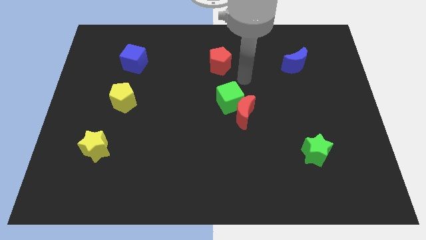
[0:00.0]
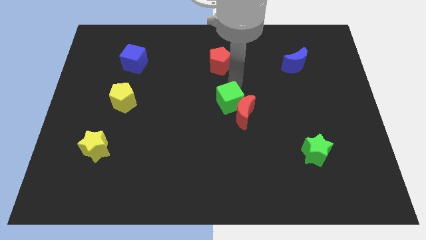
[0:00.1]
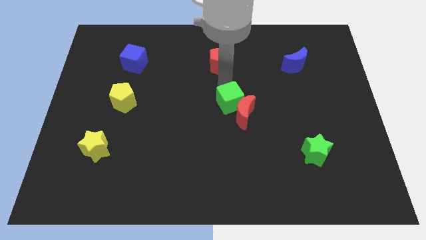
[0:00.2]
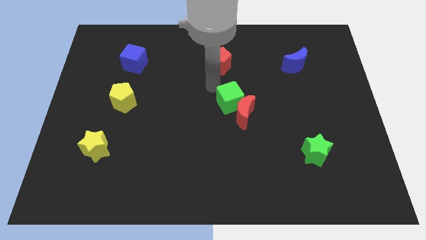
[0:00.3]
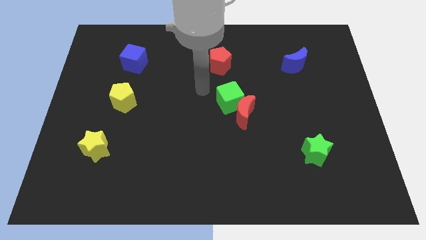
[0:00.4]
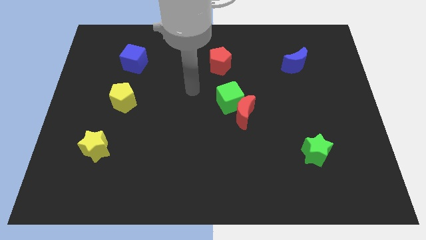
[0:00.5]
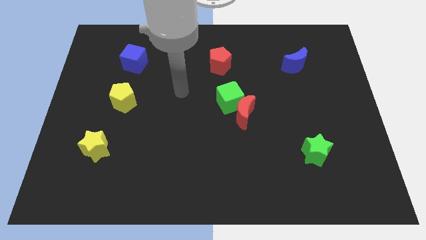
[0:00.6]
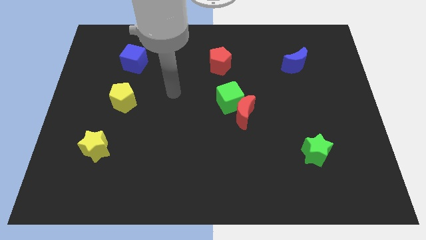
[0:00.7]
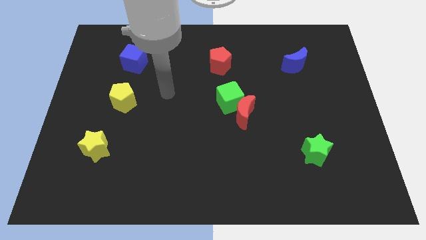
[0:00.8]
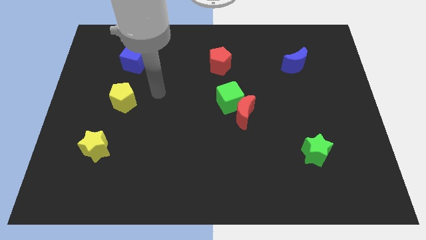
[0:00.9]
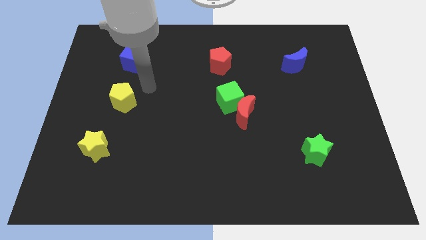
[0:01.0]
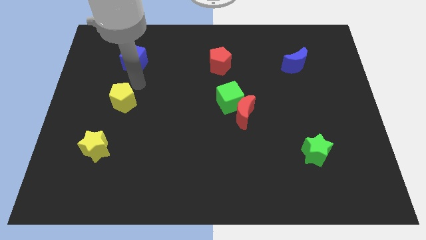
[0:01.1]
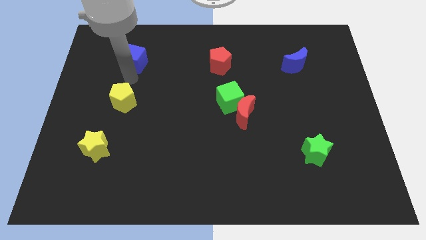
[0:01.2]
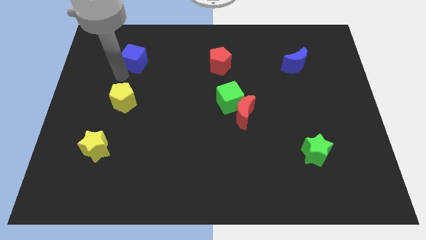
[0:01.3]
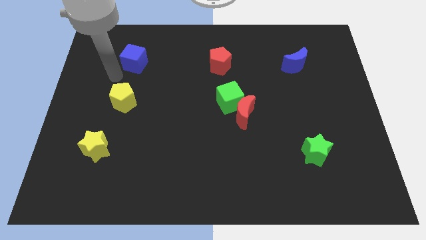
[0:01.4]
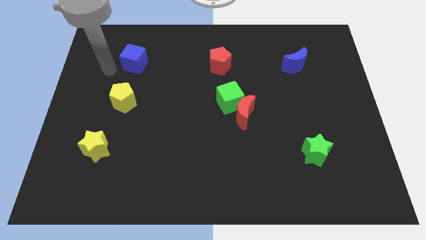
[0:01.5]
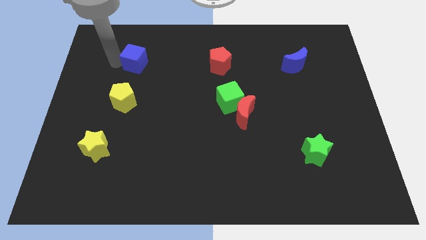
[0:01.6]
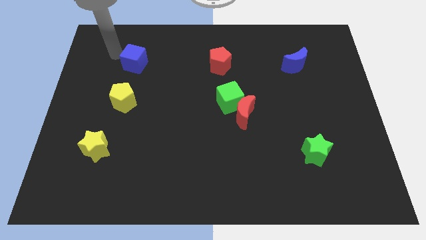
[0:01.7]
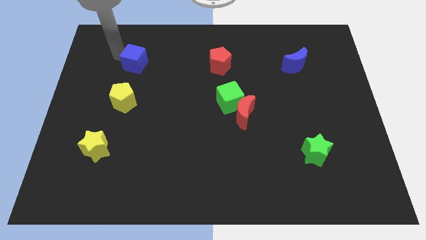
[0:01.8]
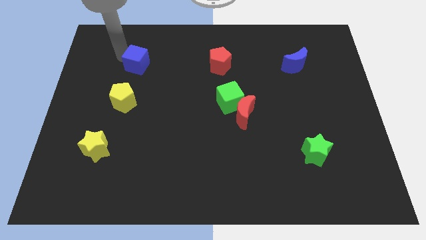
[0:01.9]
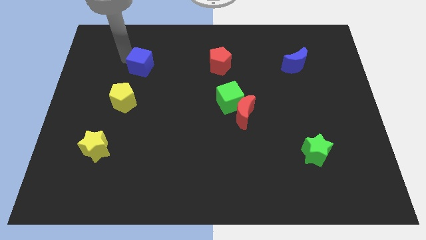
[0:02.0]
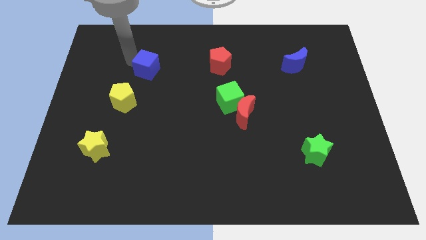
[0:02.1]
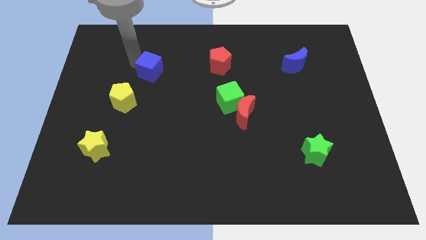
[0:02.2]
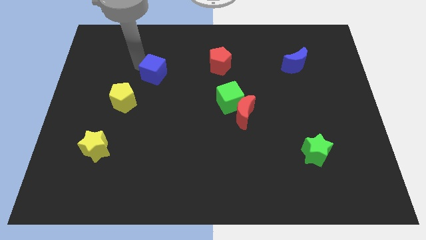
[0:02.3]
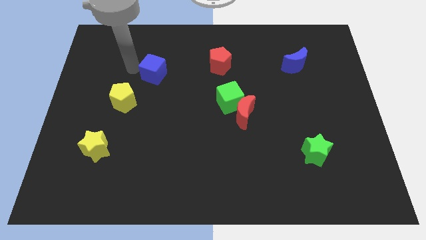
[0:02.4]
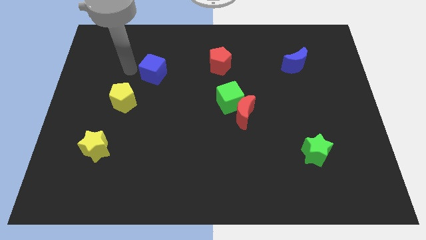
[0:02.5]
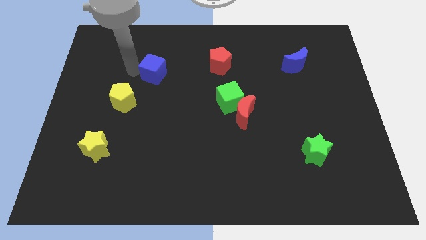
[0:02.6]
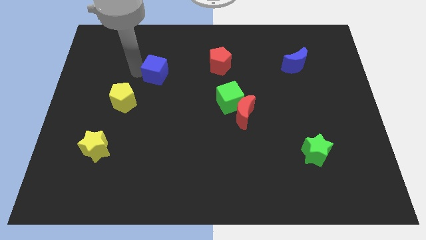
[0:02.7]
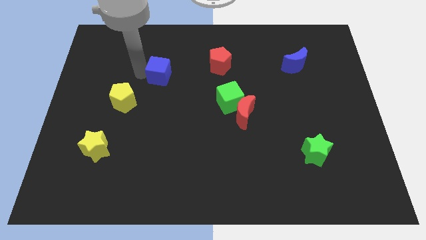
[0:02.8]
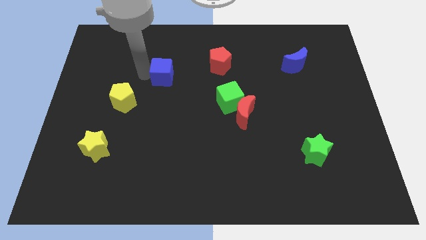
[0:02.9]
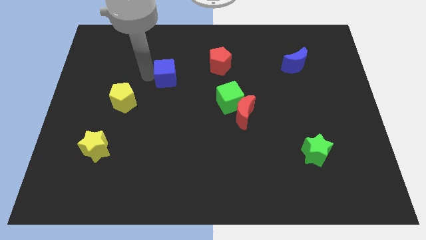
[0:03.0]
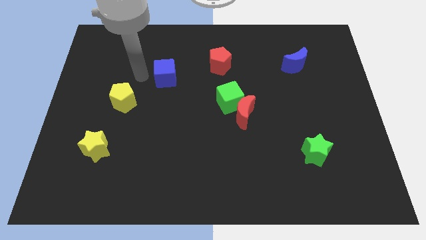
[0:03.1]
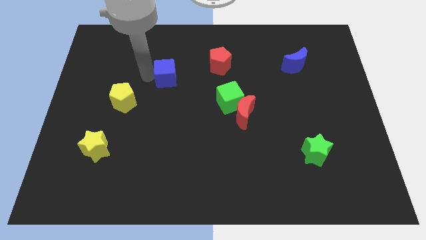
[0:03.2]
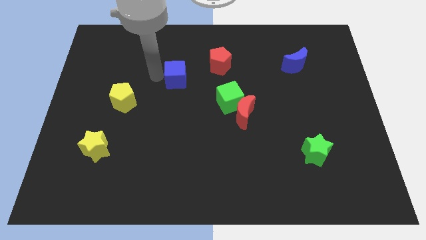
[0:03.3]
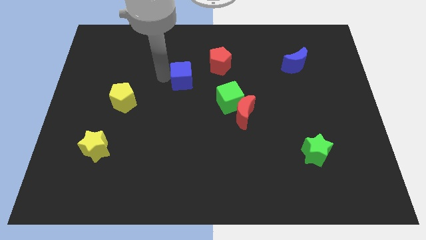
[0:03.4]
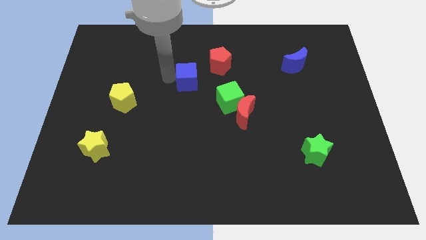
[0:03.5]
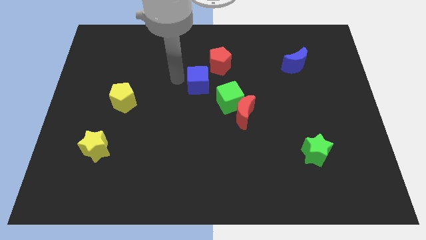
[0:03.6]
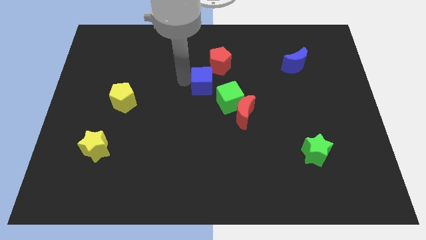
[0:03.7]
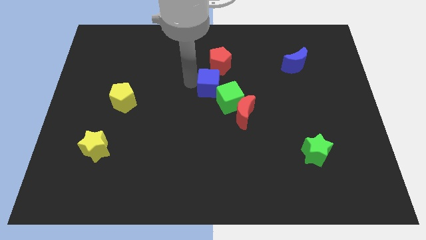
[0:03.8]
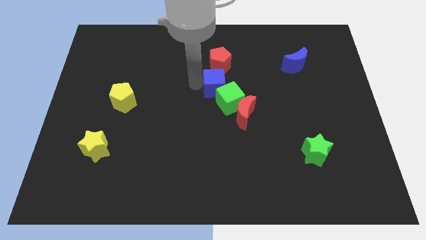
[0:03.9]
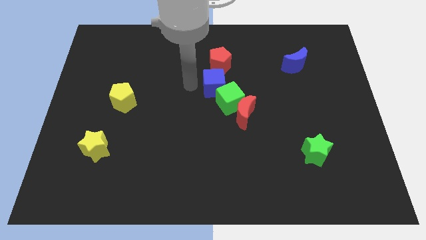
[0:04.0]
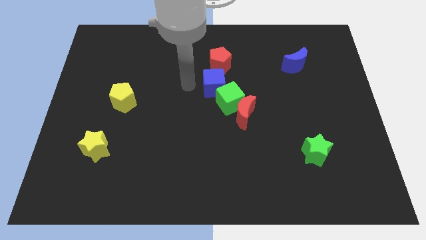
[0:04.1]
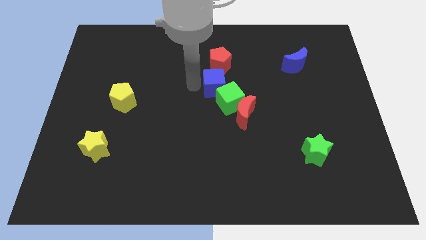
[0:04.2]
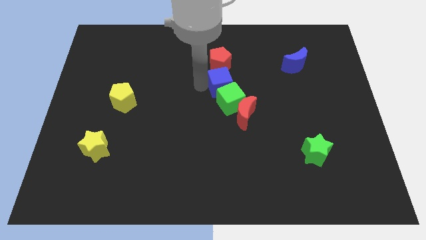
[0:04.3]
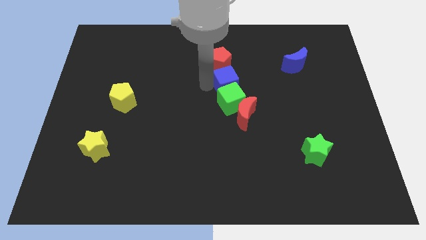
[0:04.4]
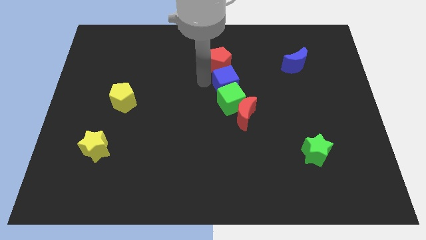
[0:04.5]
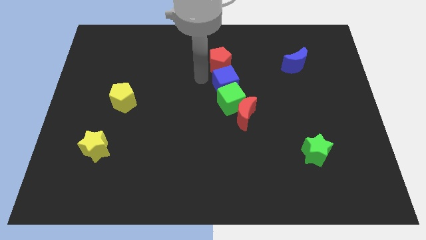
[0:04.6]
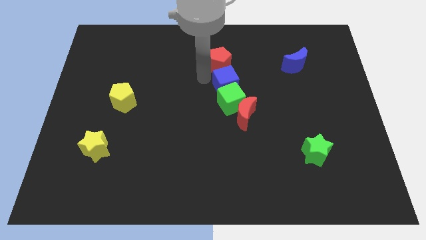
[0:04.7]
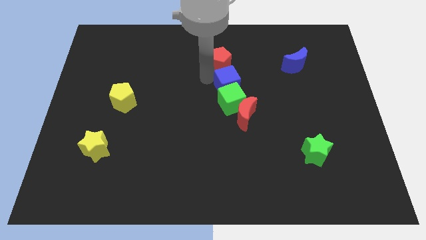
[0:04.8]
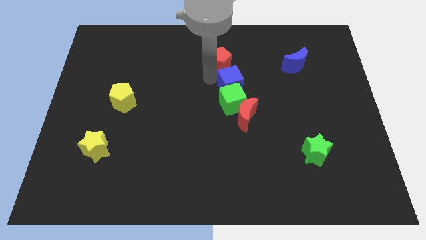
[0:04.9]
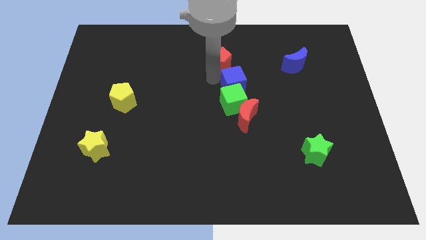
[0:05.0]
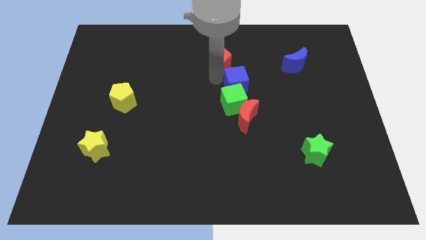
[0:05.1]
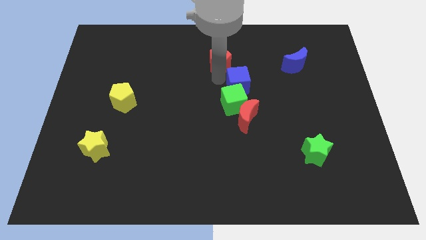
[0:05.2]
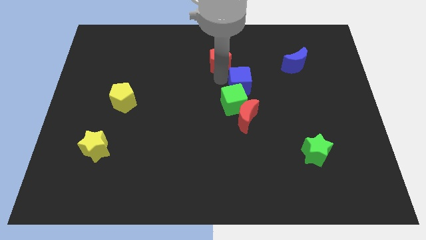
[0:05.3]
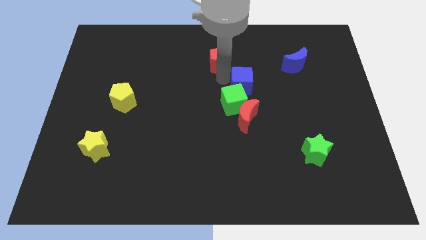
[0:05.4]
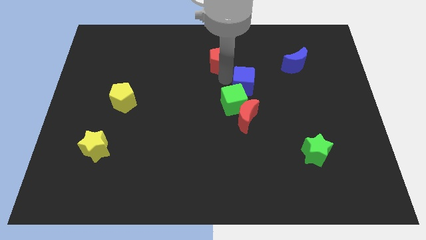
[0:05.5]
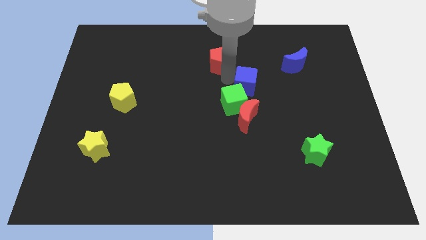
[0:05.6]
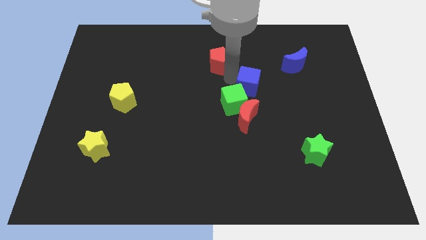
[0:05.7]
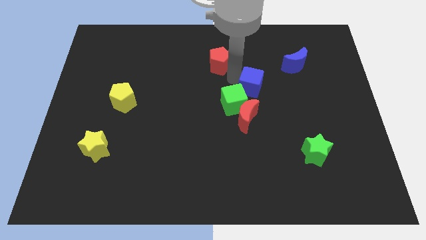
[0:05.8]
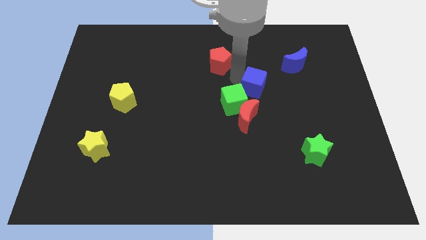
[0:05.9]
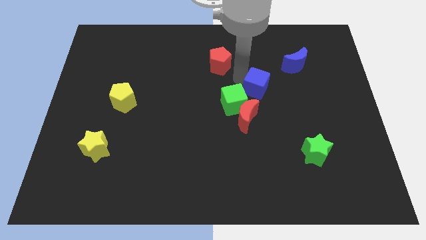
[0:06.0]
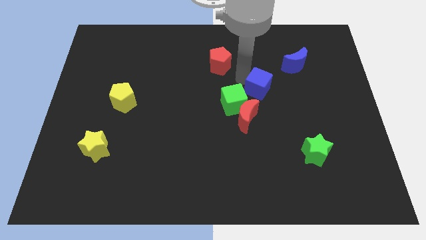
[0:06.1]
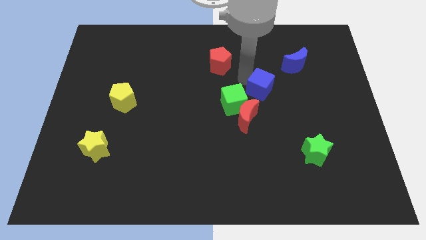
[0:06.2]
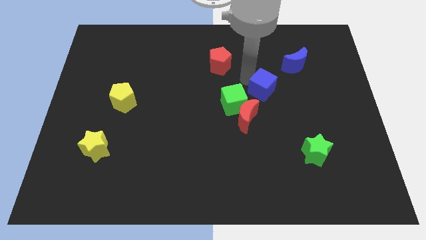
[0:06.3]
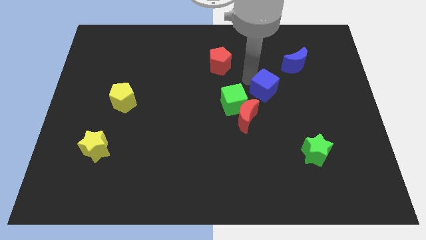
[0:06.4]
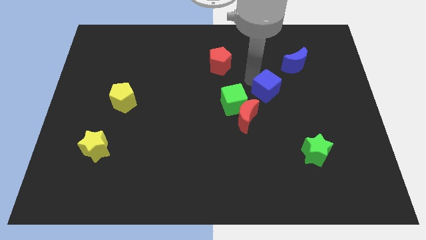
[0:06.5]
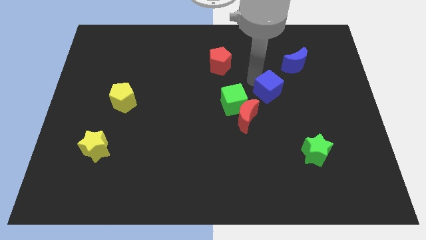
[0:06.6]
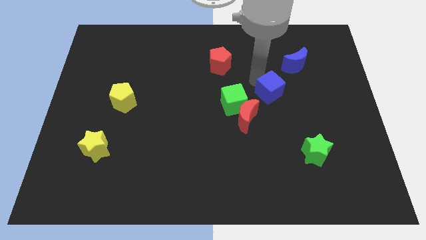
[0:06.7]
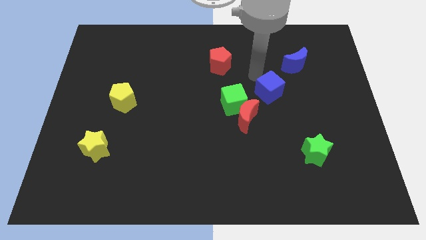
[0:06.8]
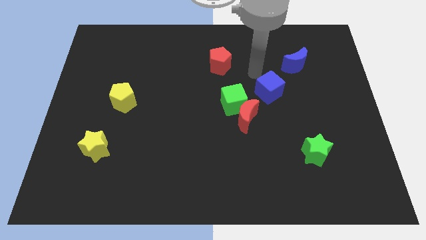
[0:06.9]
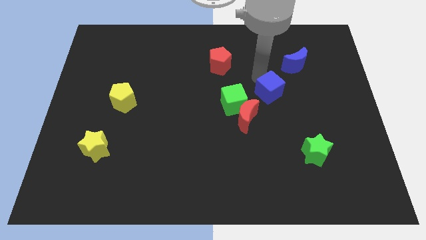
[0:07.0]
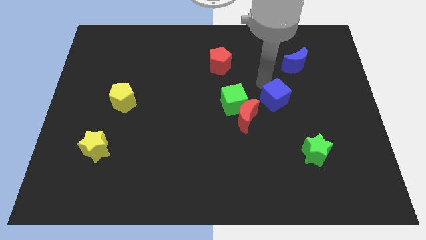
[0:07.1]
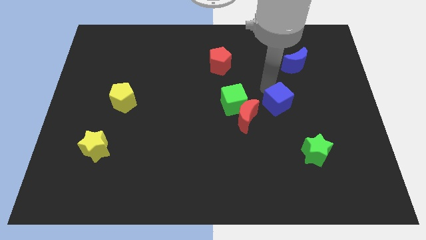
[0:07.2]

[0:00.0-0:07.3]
slide the blue cube just right of the red moon

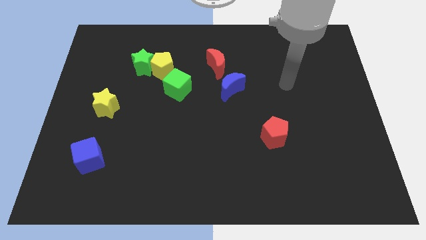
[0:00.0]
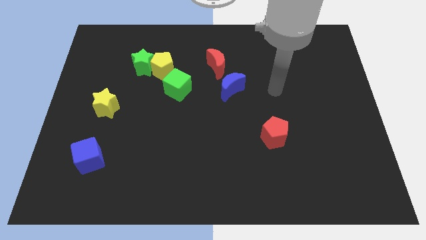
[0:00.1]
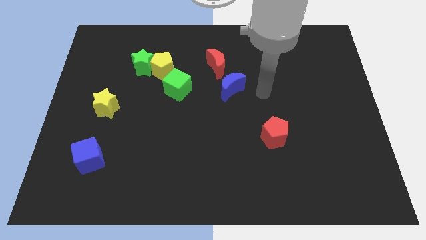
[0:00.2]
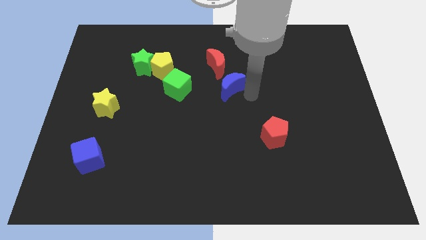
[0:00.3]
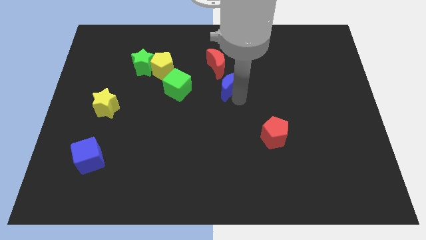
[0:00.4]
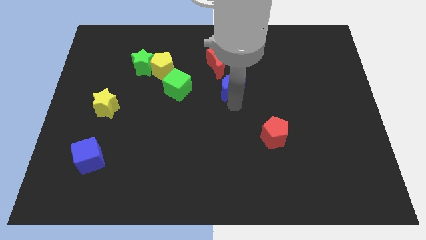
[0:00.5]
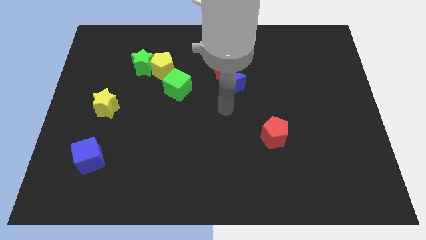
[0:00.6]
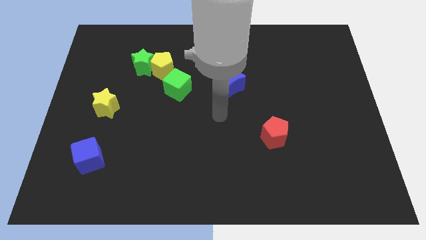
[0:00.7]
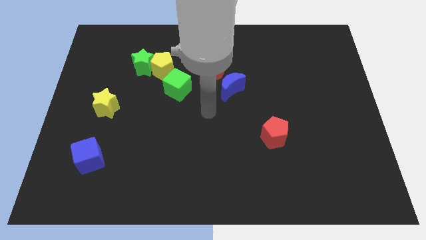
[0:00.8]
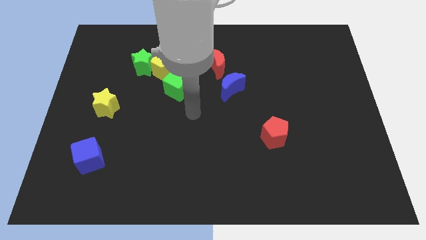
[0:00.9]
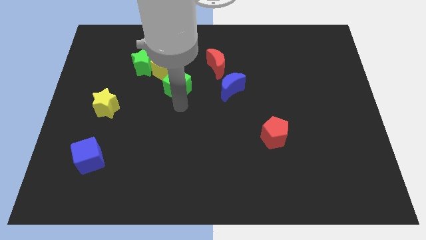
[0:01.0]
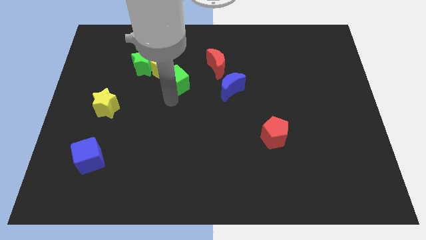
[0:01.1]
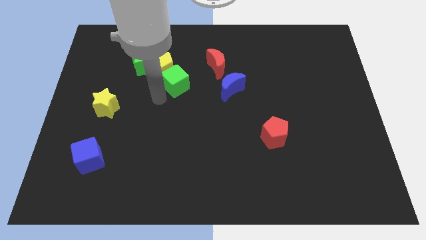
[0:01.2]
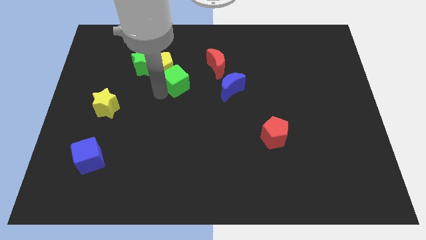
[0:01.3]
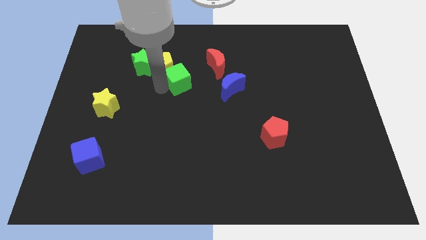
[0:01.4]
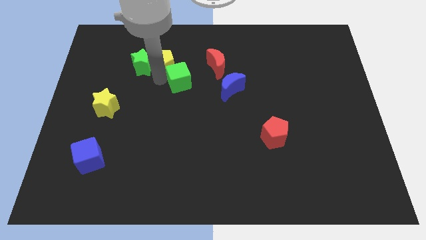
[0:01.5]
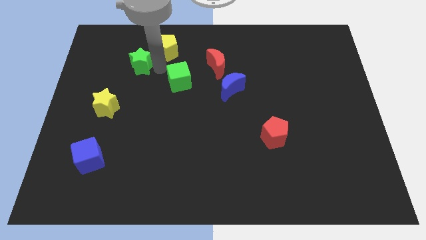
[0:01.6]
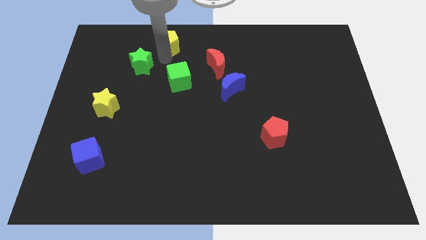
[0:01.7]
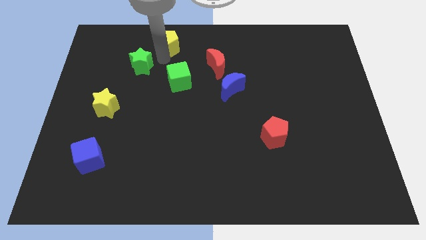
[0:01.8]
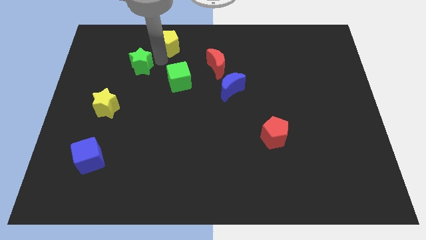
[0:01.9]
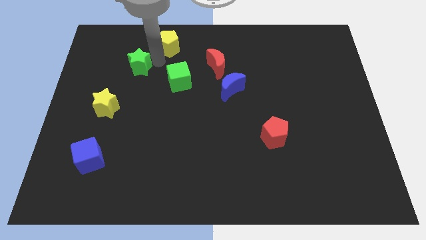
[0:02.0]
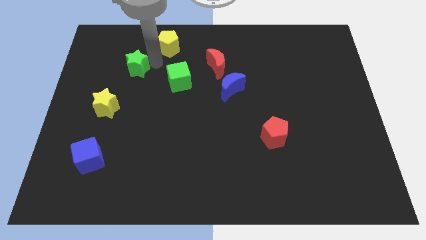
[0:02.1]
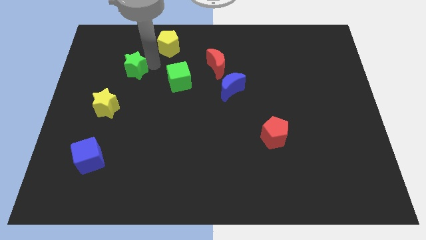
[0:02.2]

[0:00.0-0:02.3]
put the green star to the top side of the yellow star
